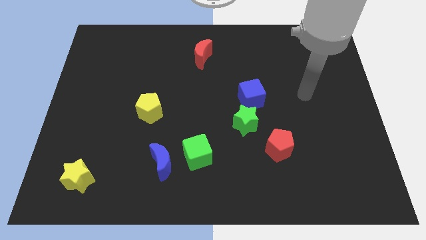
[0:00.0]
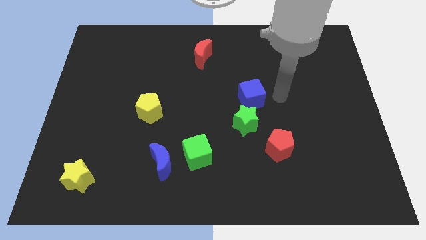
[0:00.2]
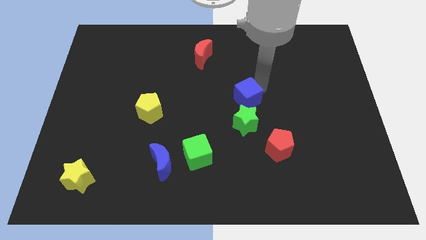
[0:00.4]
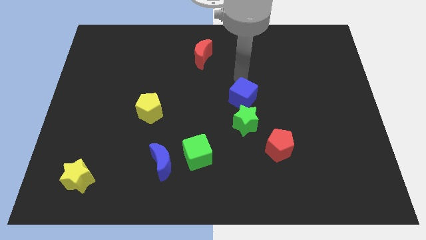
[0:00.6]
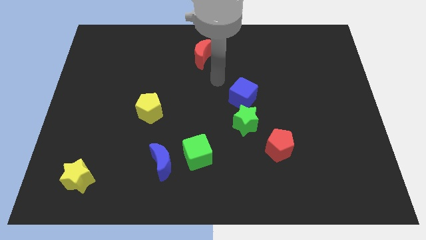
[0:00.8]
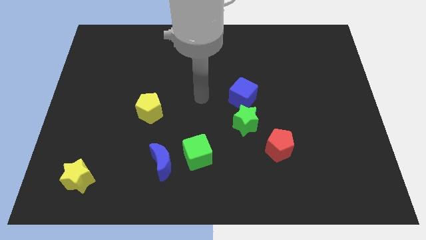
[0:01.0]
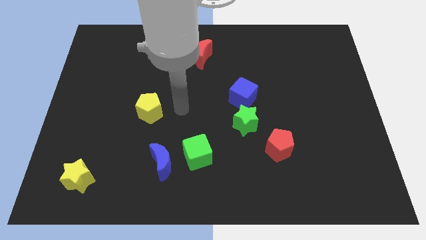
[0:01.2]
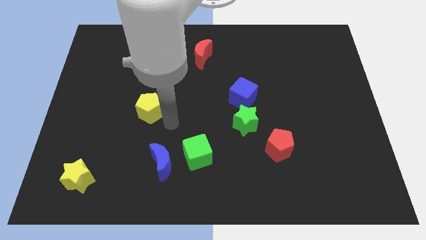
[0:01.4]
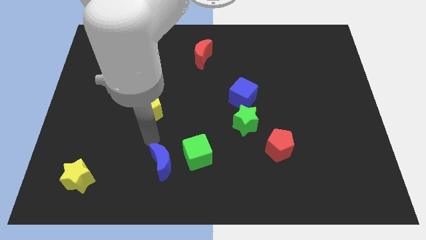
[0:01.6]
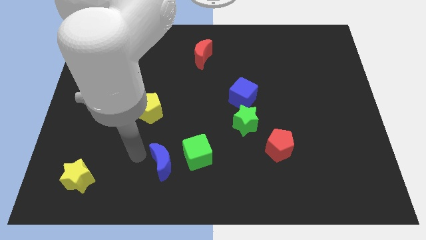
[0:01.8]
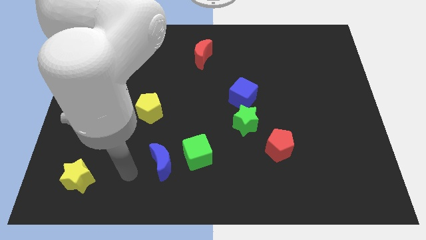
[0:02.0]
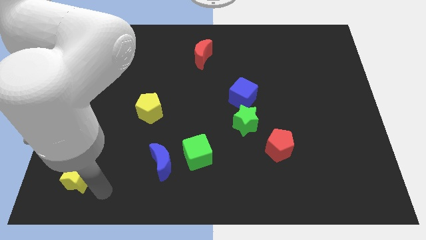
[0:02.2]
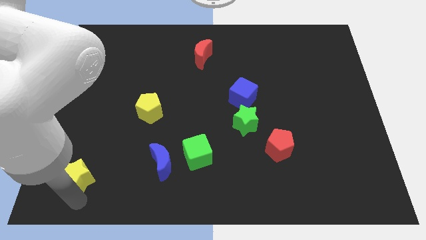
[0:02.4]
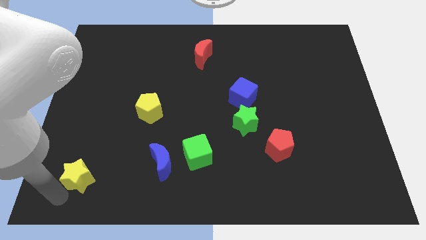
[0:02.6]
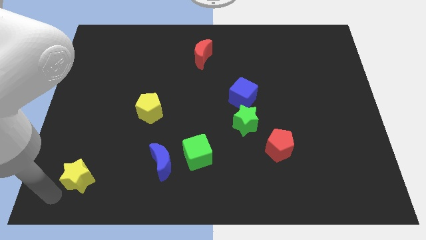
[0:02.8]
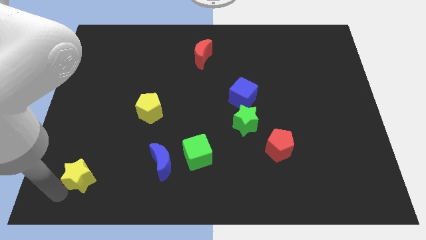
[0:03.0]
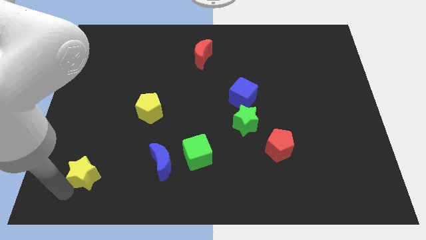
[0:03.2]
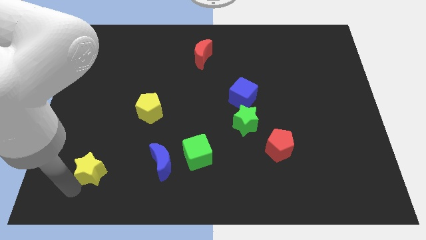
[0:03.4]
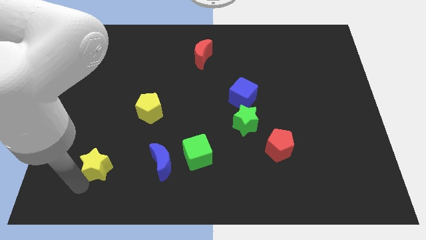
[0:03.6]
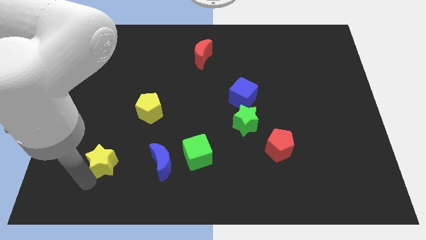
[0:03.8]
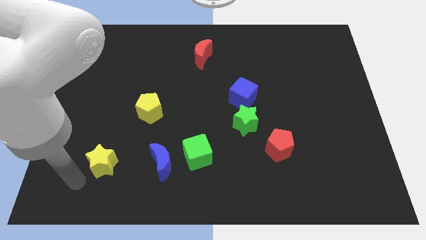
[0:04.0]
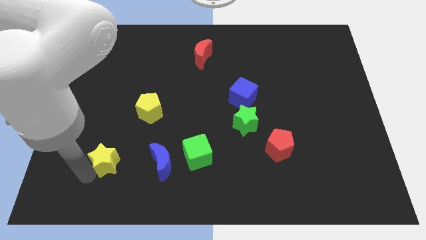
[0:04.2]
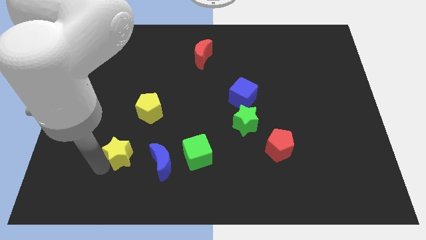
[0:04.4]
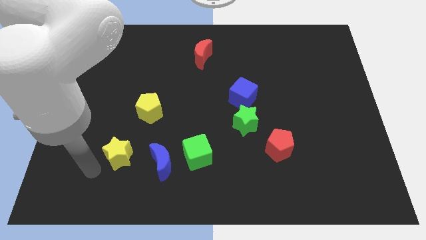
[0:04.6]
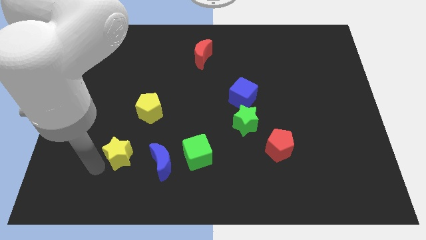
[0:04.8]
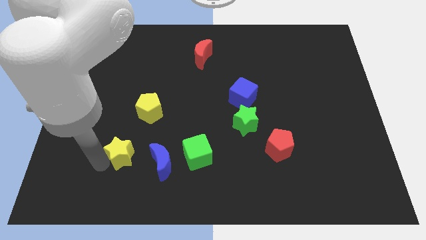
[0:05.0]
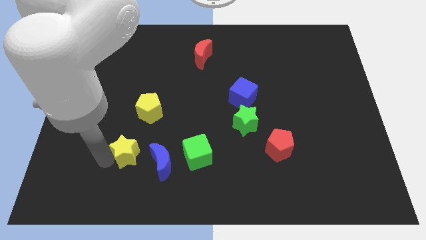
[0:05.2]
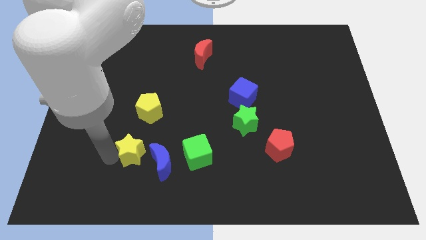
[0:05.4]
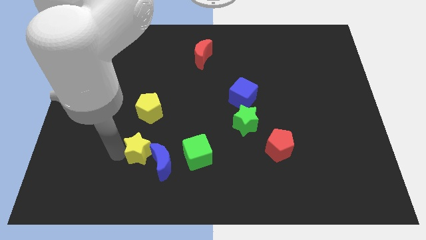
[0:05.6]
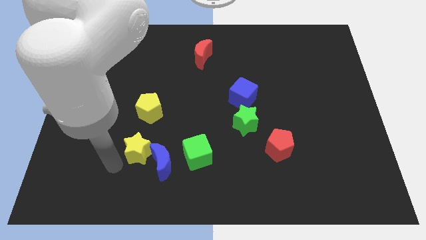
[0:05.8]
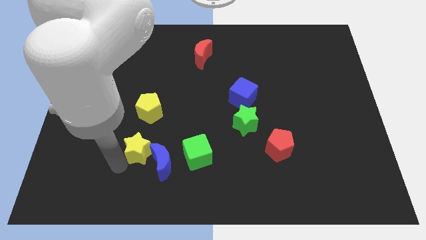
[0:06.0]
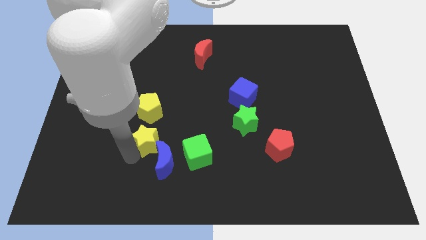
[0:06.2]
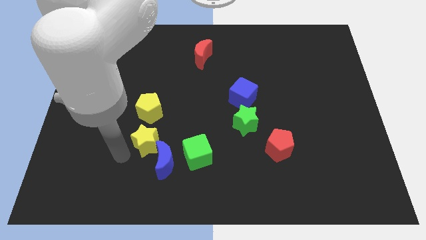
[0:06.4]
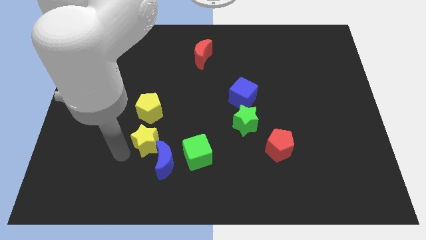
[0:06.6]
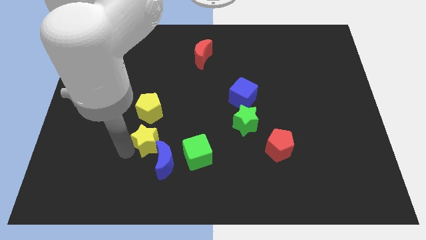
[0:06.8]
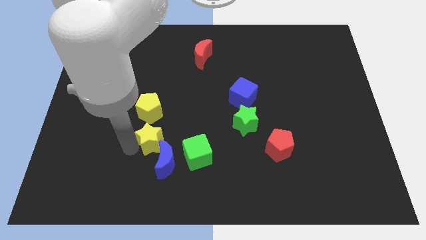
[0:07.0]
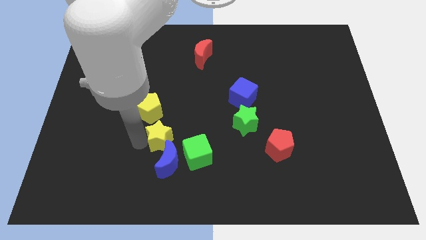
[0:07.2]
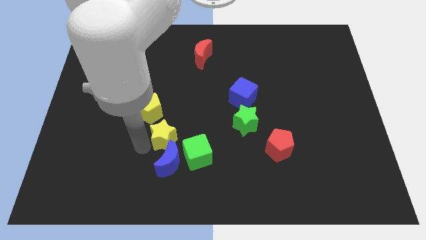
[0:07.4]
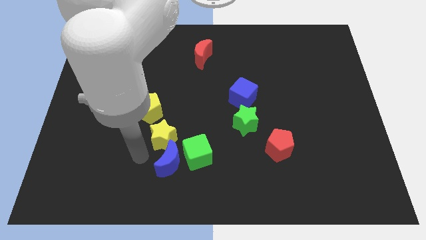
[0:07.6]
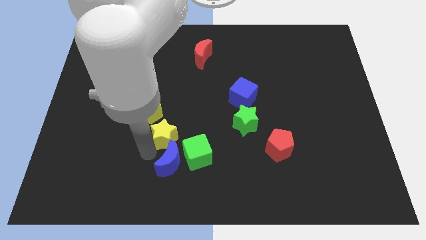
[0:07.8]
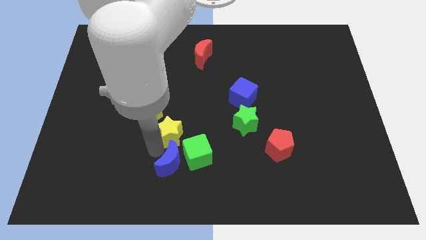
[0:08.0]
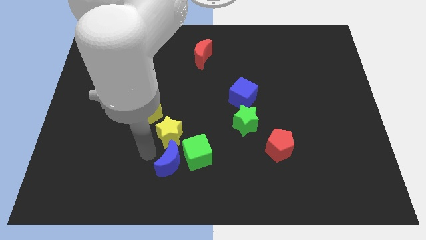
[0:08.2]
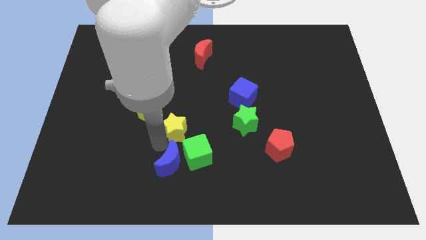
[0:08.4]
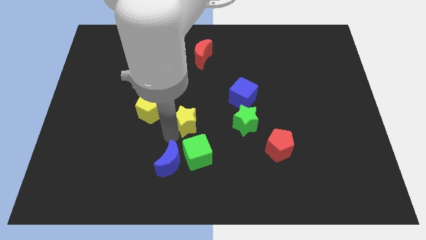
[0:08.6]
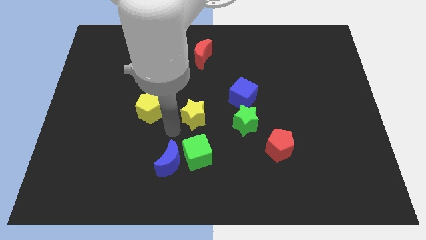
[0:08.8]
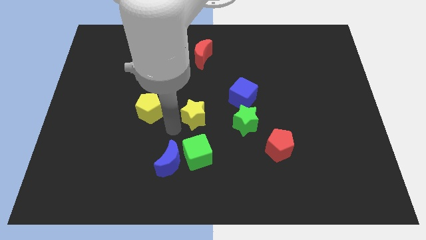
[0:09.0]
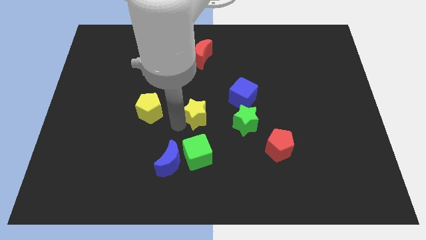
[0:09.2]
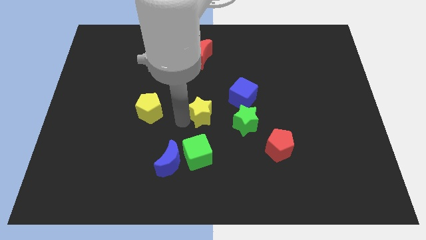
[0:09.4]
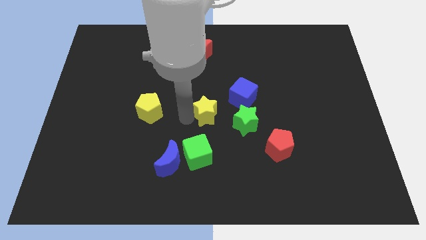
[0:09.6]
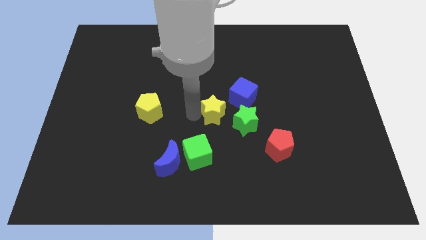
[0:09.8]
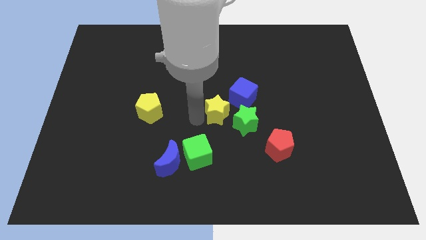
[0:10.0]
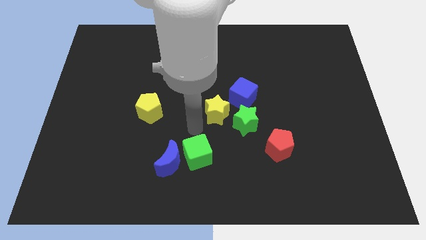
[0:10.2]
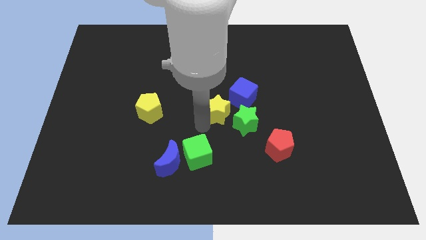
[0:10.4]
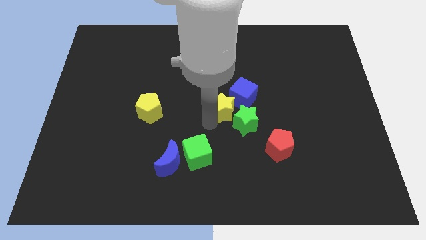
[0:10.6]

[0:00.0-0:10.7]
slide the yellow star next to the blue cube
